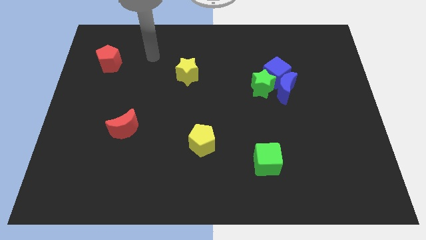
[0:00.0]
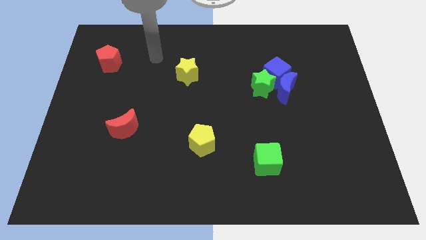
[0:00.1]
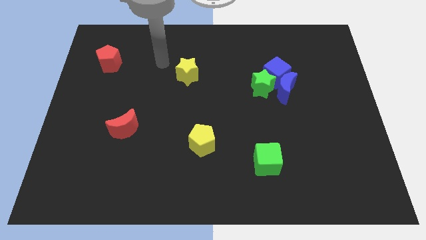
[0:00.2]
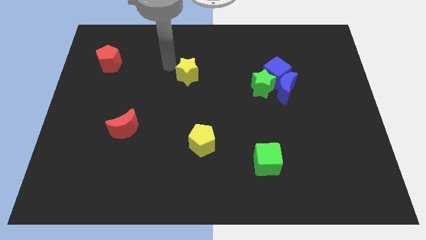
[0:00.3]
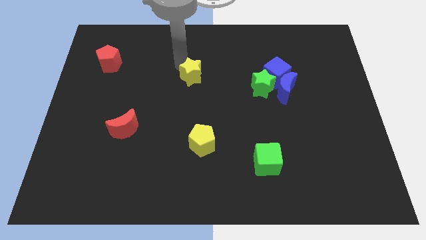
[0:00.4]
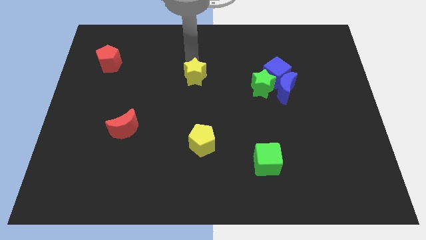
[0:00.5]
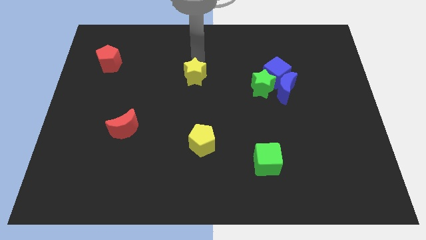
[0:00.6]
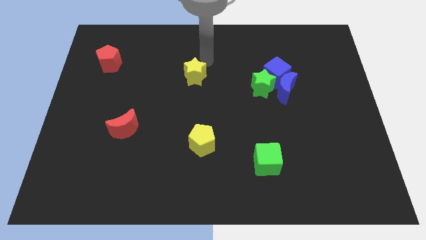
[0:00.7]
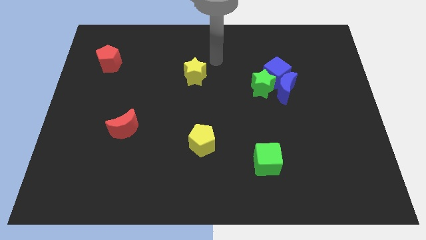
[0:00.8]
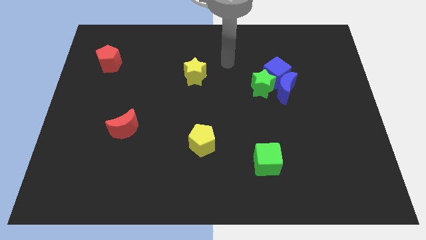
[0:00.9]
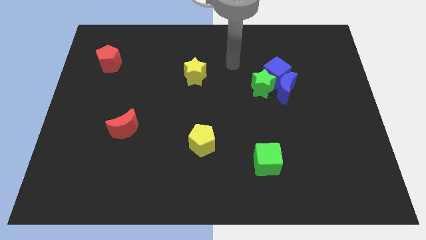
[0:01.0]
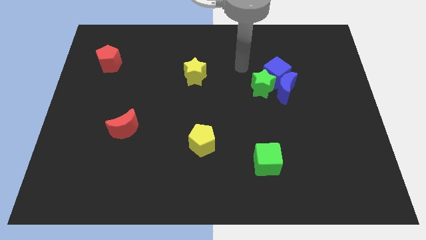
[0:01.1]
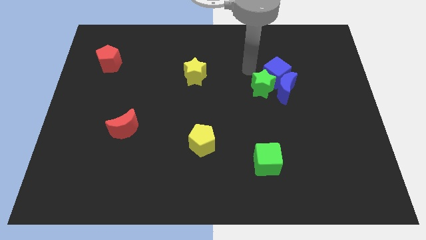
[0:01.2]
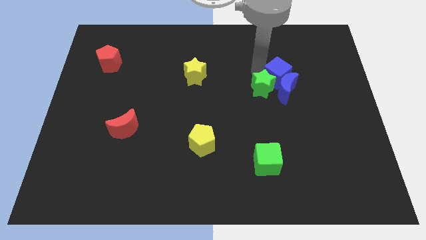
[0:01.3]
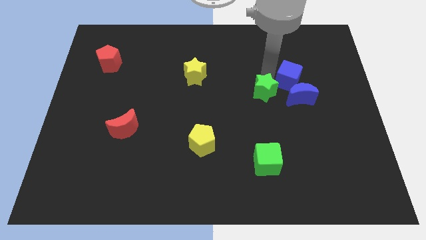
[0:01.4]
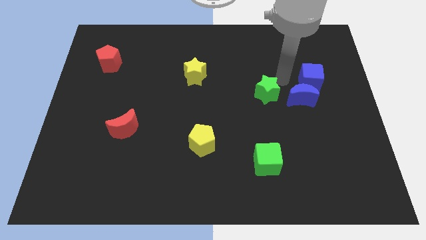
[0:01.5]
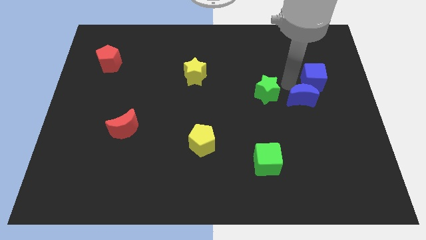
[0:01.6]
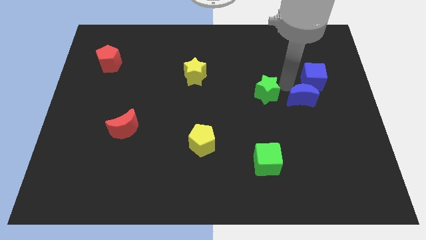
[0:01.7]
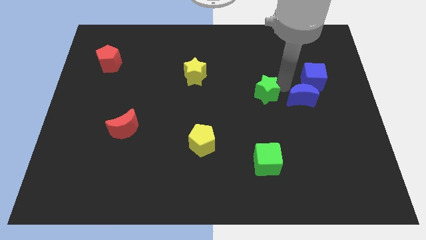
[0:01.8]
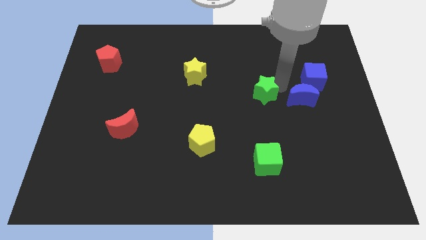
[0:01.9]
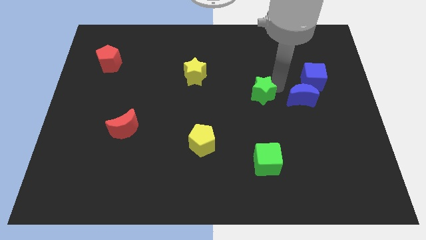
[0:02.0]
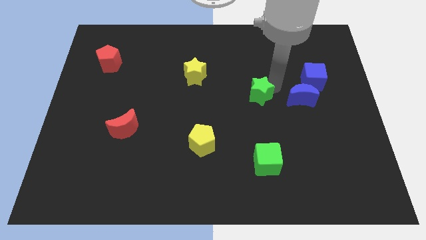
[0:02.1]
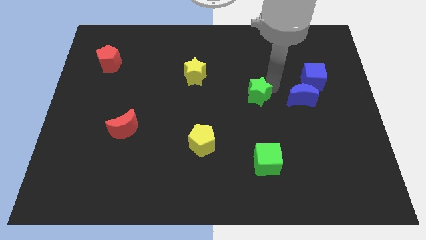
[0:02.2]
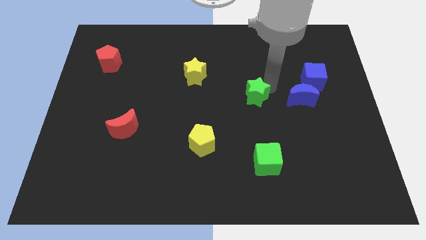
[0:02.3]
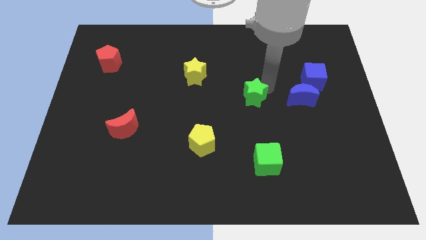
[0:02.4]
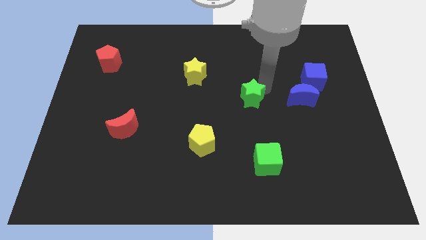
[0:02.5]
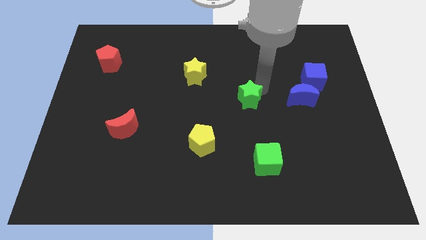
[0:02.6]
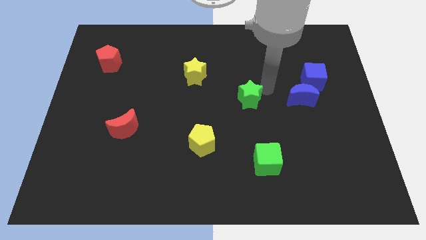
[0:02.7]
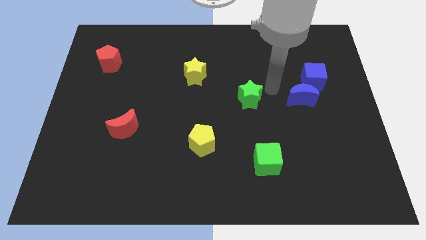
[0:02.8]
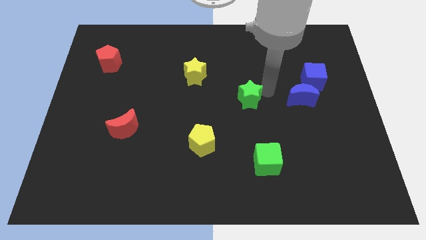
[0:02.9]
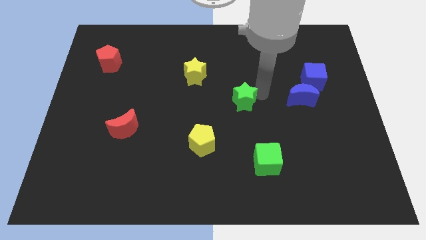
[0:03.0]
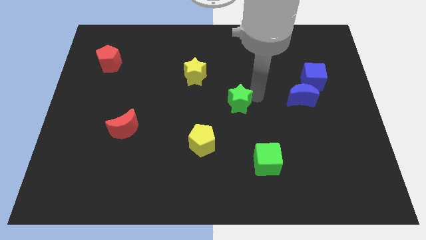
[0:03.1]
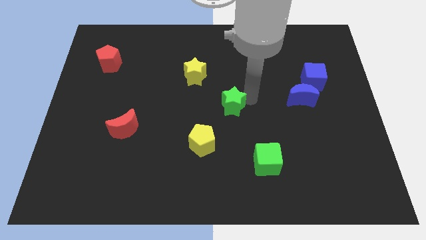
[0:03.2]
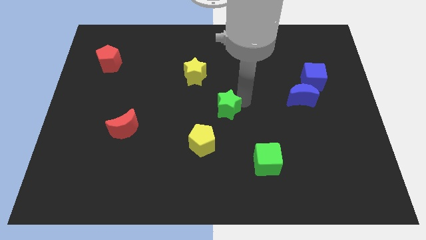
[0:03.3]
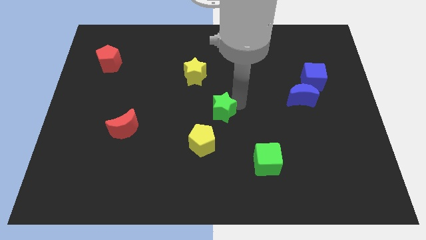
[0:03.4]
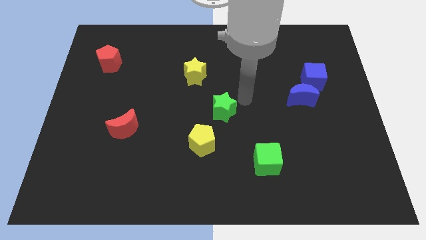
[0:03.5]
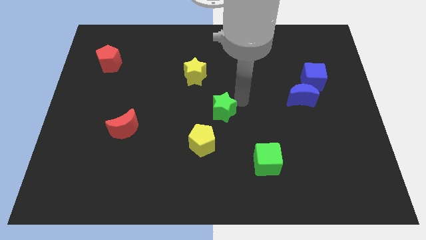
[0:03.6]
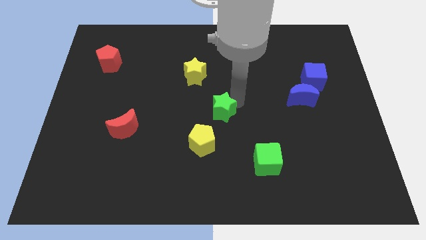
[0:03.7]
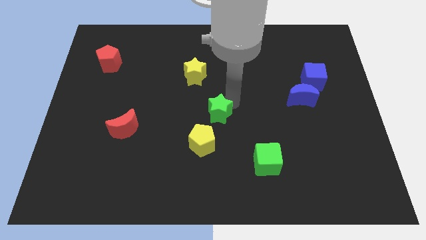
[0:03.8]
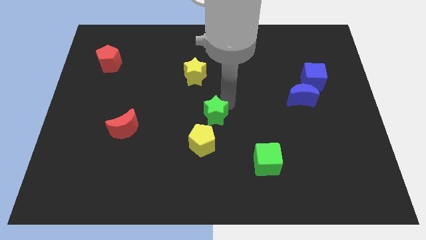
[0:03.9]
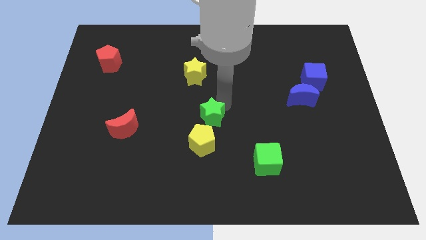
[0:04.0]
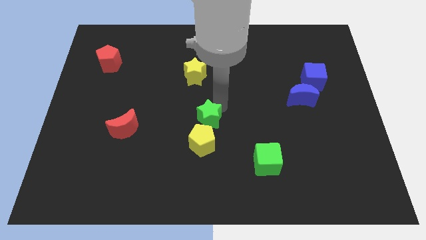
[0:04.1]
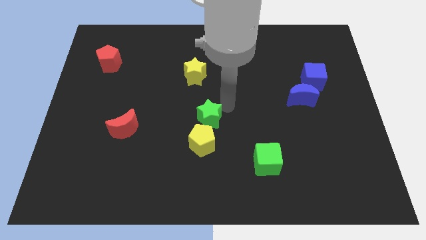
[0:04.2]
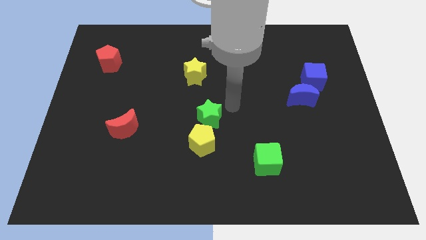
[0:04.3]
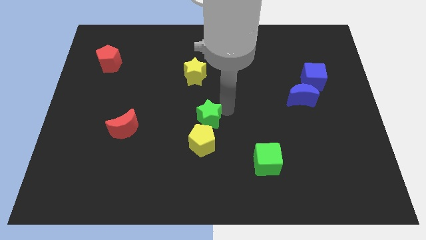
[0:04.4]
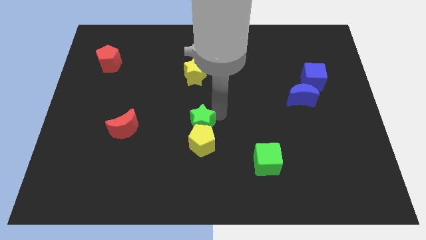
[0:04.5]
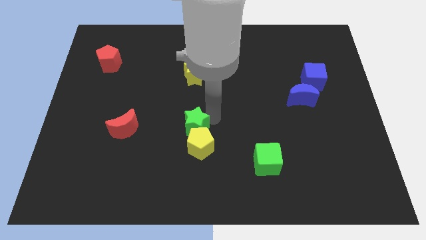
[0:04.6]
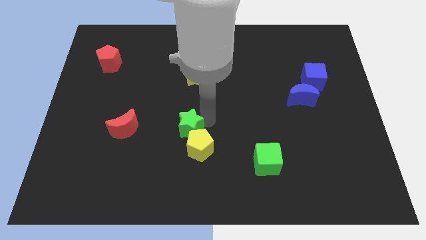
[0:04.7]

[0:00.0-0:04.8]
push the green star downwards and to the left

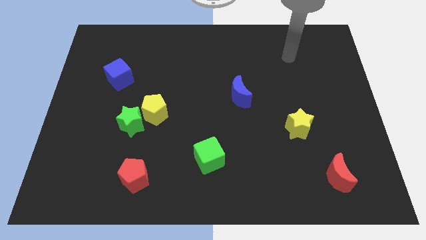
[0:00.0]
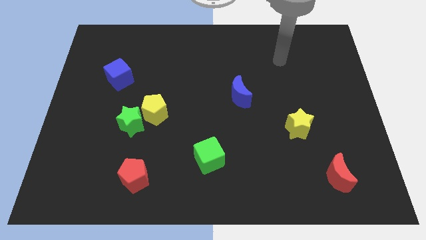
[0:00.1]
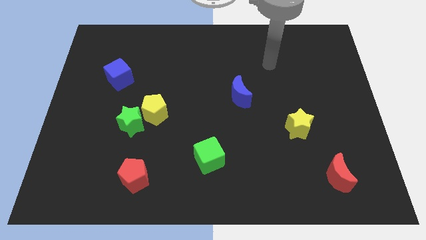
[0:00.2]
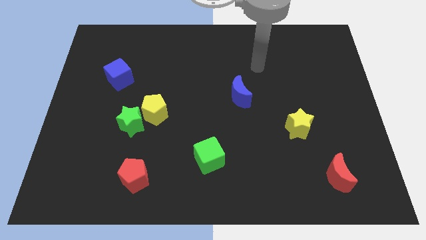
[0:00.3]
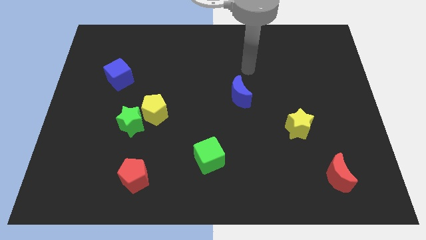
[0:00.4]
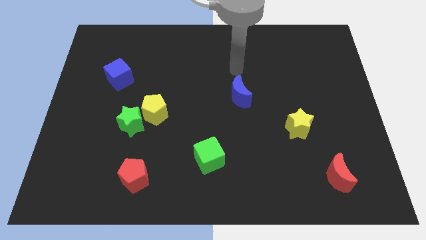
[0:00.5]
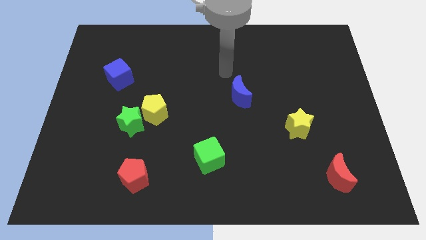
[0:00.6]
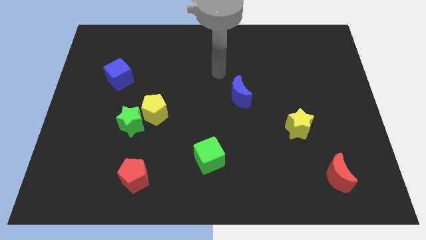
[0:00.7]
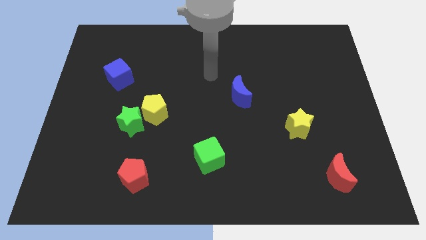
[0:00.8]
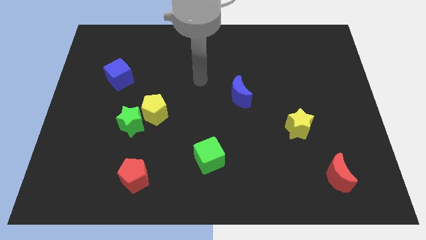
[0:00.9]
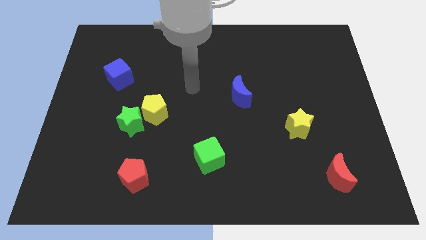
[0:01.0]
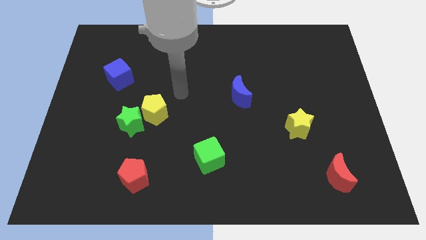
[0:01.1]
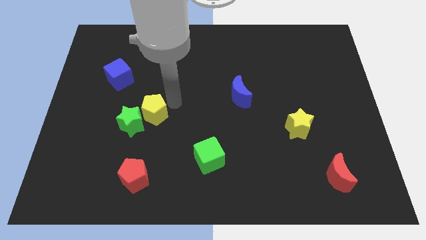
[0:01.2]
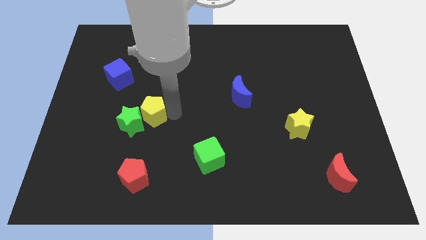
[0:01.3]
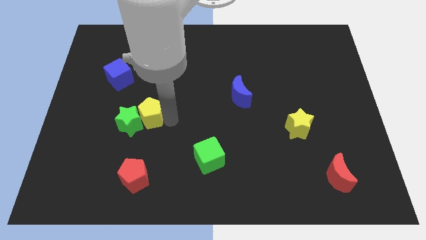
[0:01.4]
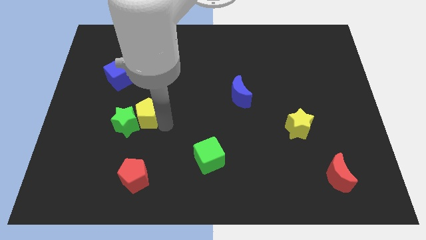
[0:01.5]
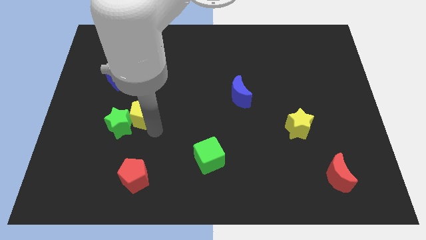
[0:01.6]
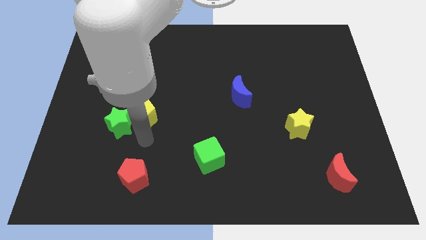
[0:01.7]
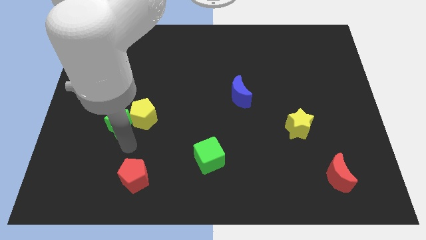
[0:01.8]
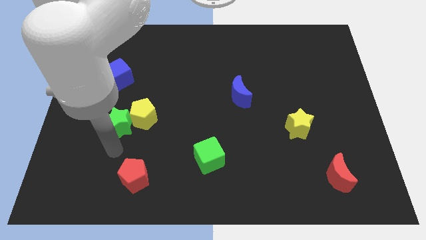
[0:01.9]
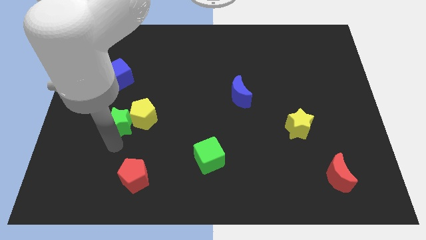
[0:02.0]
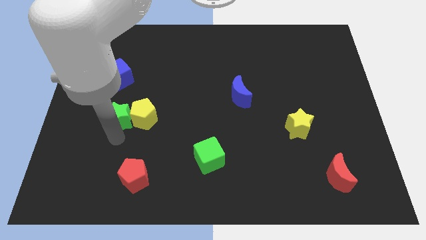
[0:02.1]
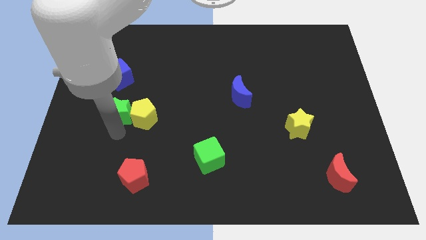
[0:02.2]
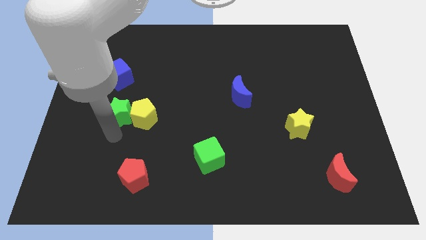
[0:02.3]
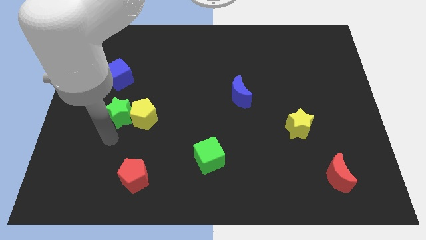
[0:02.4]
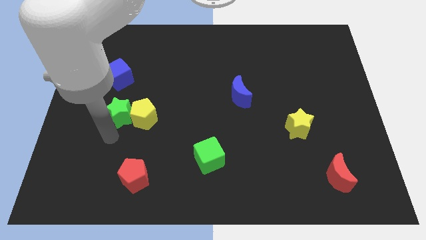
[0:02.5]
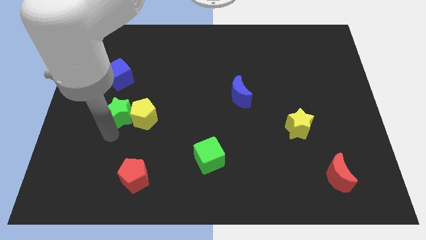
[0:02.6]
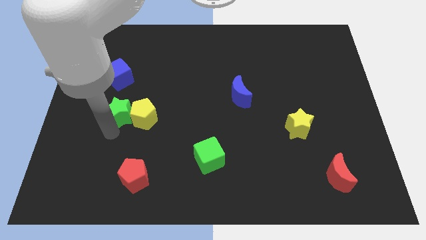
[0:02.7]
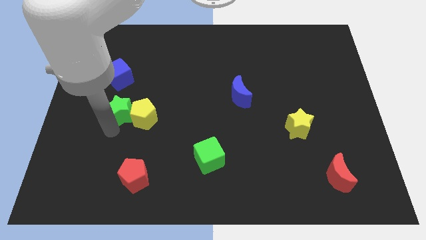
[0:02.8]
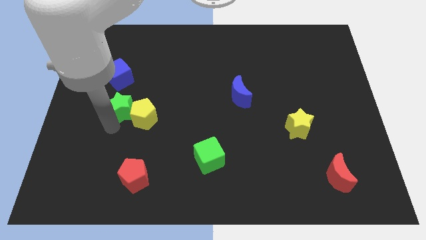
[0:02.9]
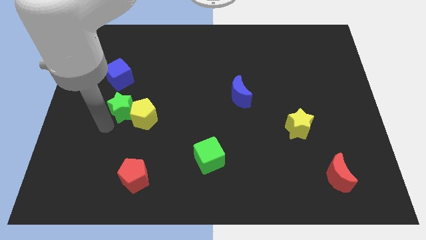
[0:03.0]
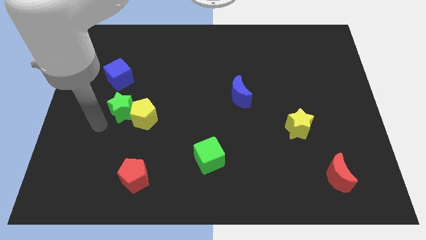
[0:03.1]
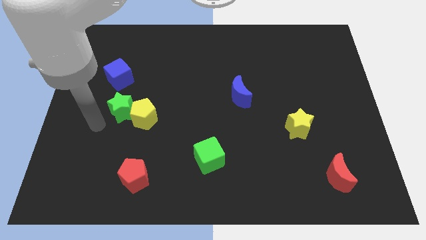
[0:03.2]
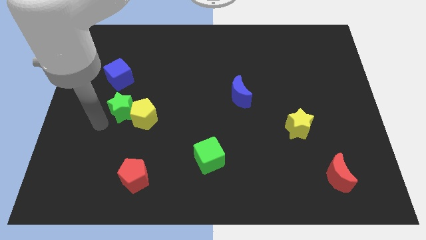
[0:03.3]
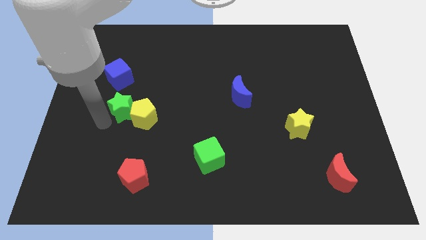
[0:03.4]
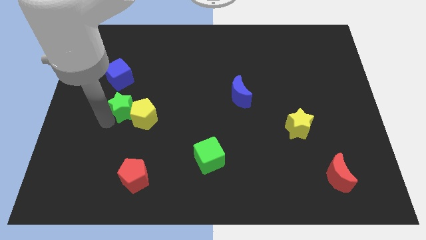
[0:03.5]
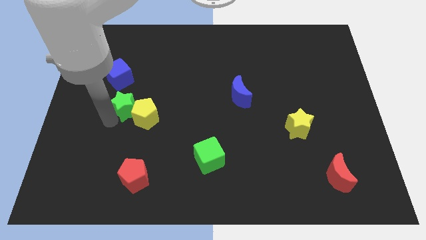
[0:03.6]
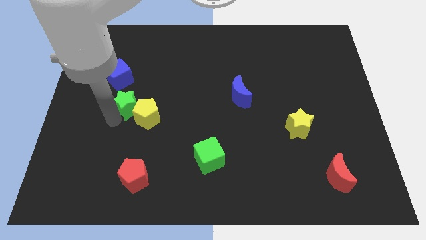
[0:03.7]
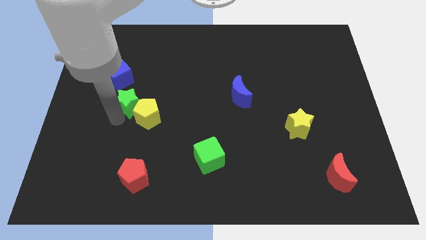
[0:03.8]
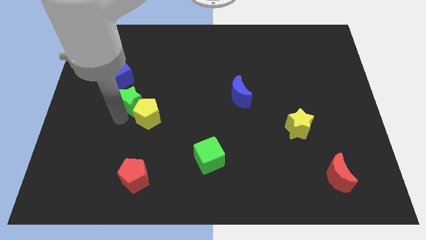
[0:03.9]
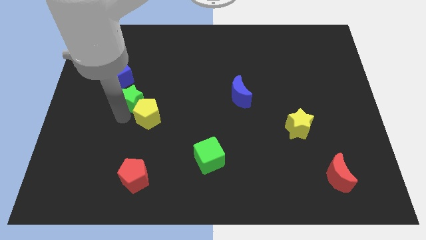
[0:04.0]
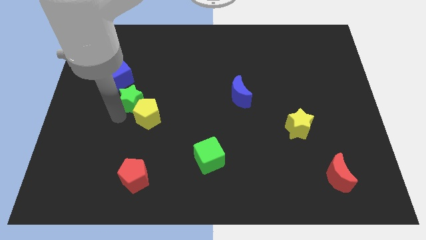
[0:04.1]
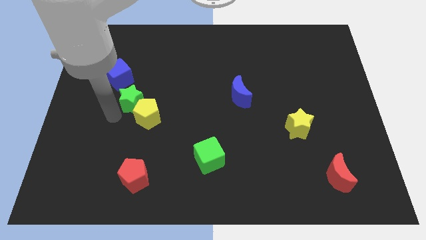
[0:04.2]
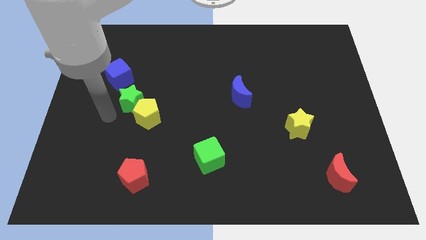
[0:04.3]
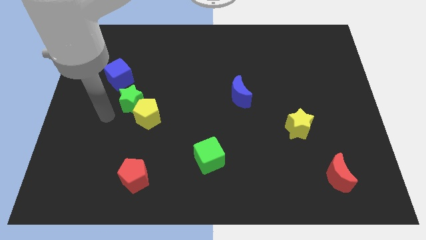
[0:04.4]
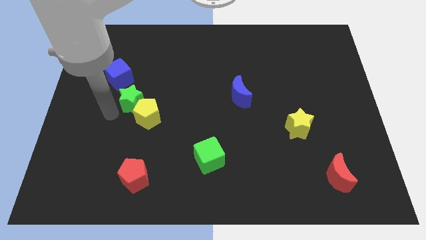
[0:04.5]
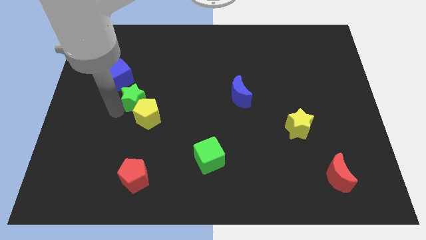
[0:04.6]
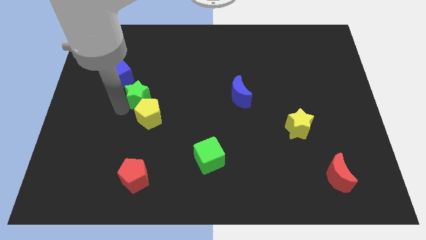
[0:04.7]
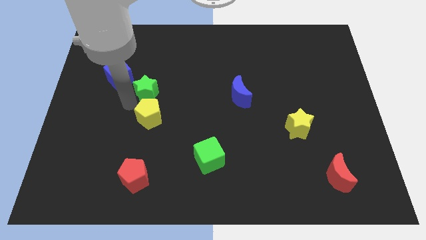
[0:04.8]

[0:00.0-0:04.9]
move the green star upwards and right slightly
